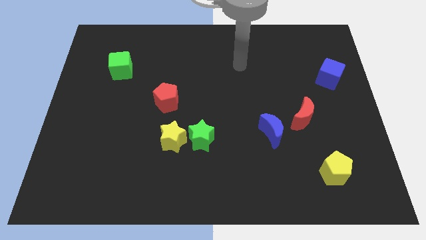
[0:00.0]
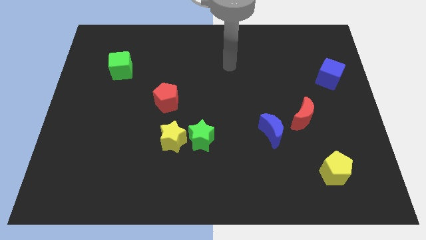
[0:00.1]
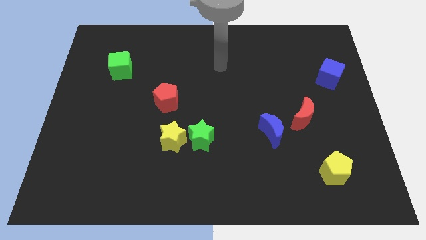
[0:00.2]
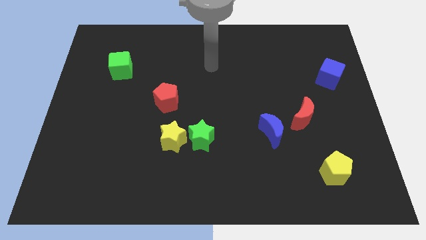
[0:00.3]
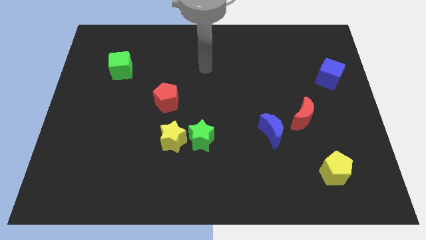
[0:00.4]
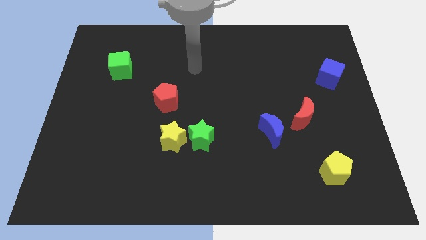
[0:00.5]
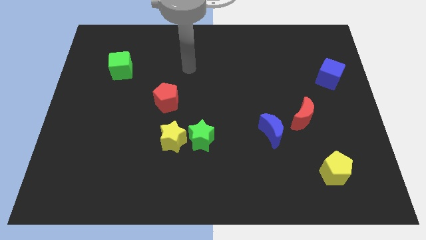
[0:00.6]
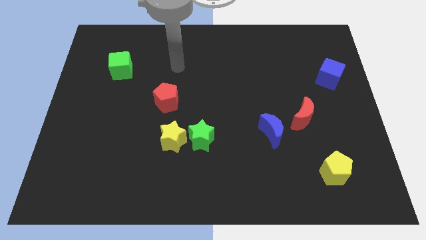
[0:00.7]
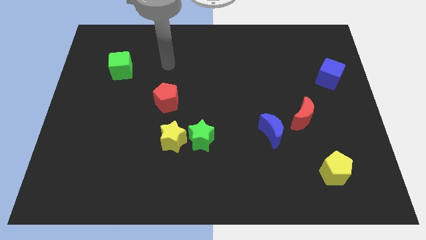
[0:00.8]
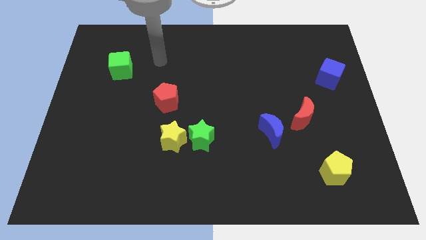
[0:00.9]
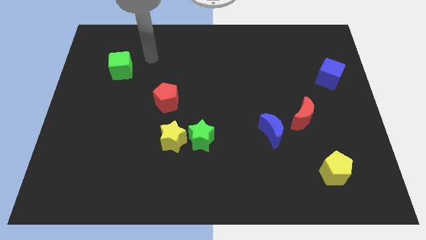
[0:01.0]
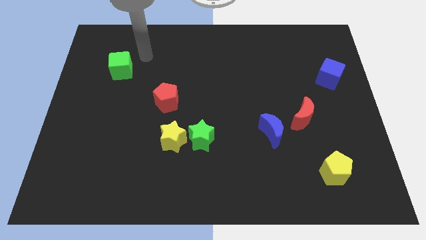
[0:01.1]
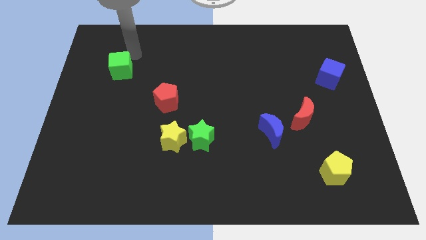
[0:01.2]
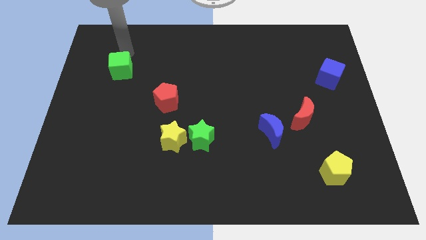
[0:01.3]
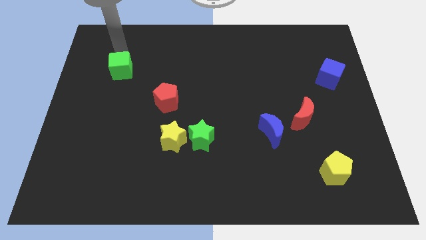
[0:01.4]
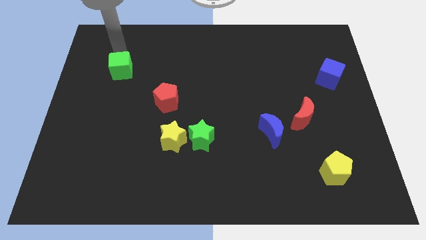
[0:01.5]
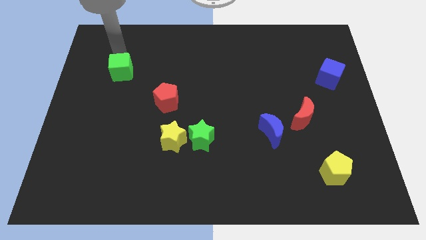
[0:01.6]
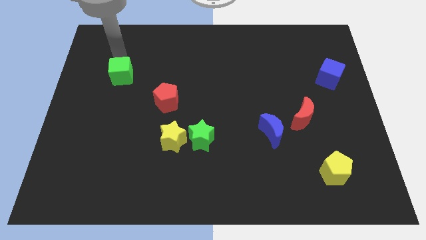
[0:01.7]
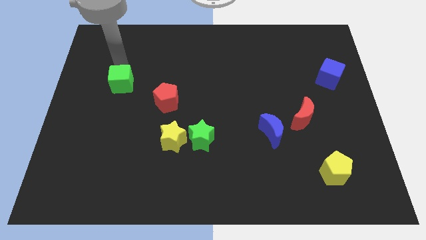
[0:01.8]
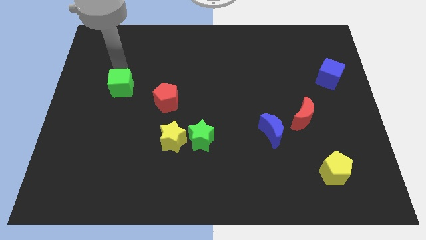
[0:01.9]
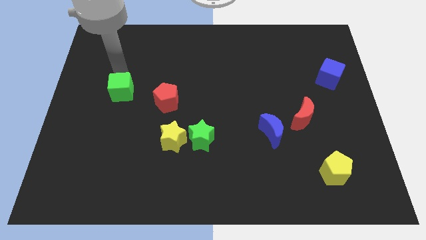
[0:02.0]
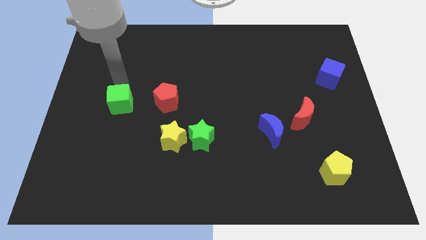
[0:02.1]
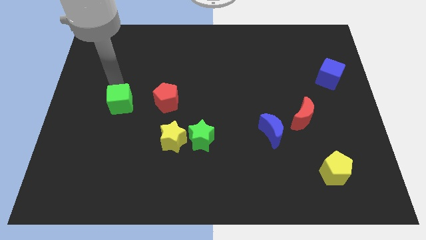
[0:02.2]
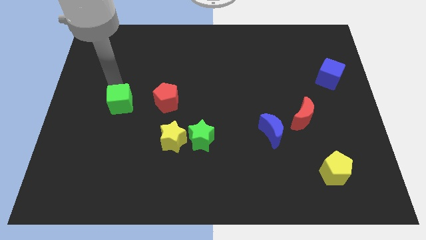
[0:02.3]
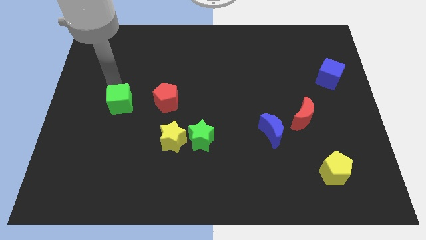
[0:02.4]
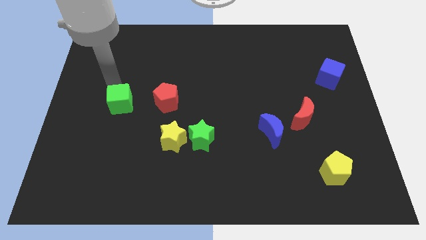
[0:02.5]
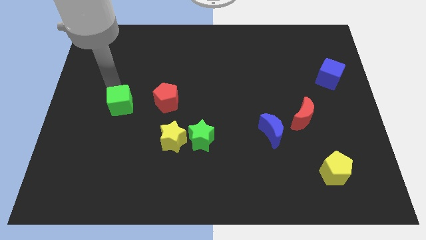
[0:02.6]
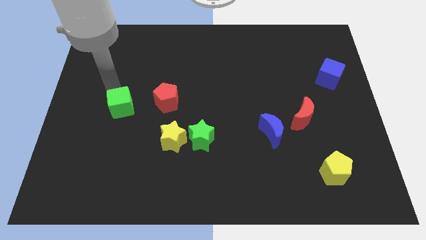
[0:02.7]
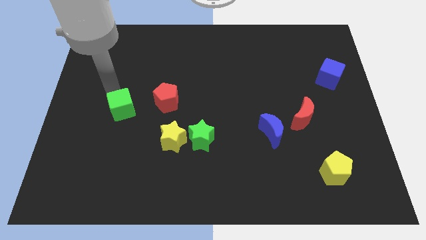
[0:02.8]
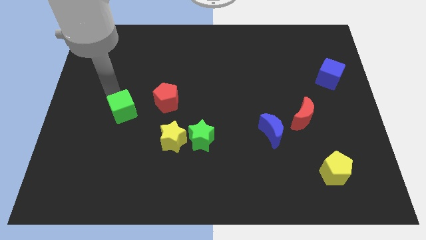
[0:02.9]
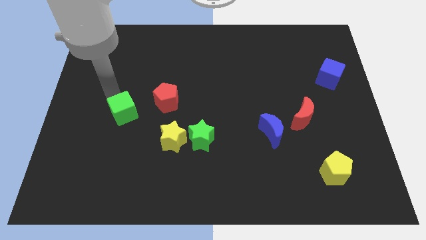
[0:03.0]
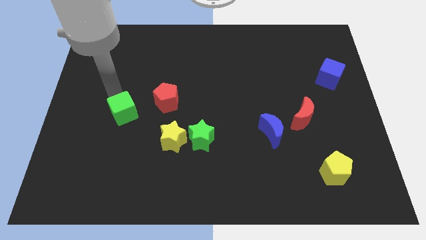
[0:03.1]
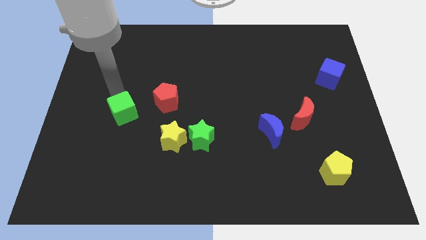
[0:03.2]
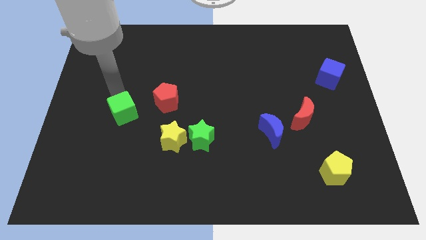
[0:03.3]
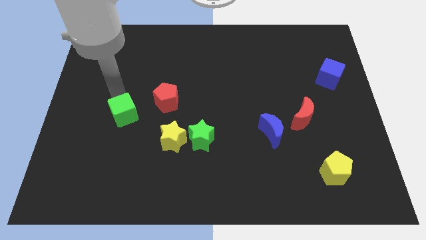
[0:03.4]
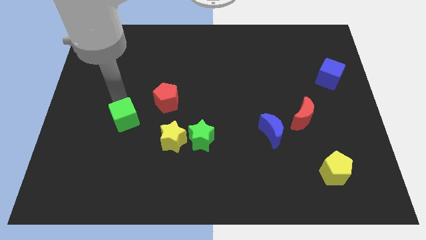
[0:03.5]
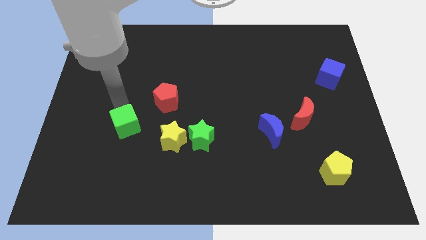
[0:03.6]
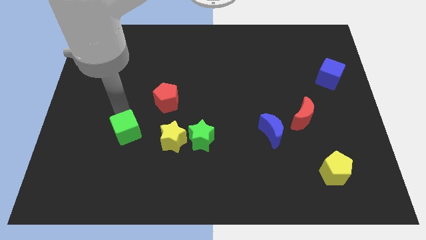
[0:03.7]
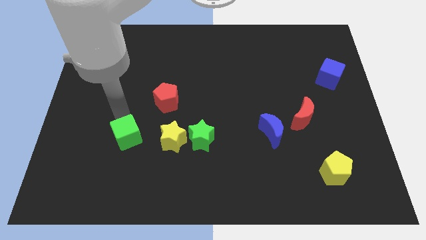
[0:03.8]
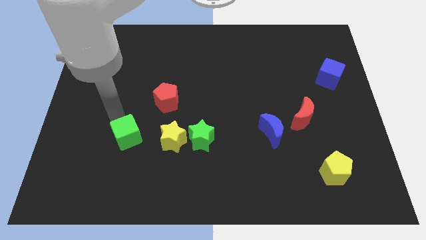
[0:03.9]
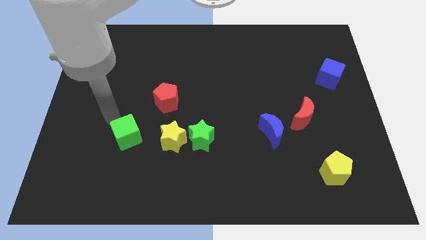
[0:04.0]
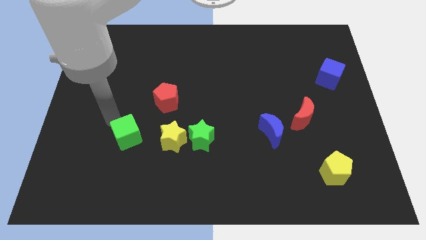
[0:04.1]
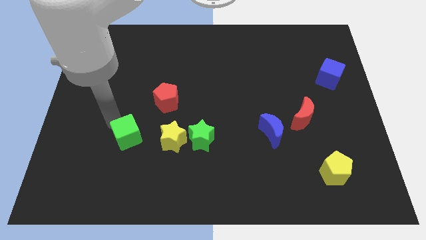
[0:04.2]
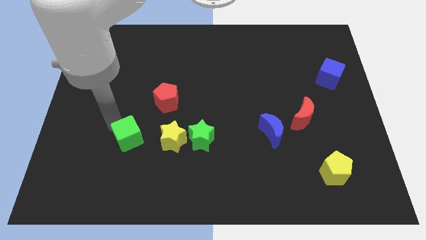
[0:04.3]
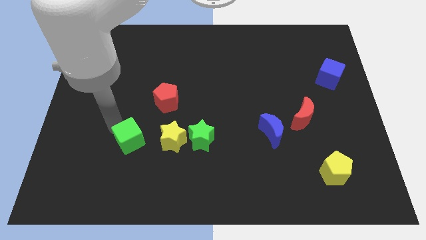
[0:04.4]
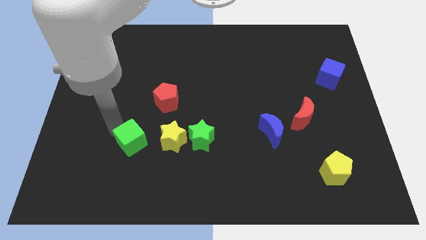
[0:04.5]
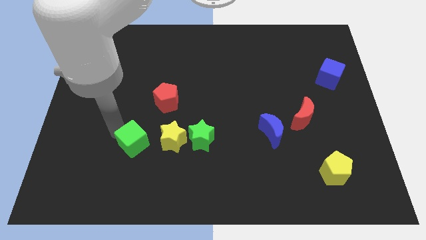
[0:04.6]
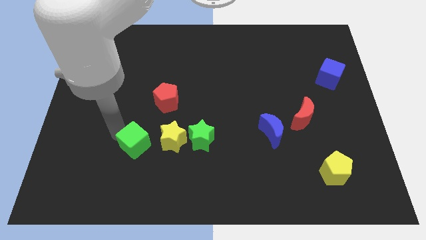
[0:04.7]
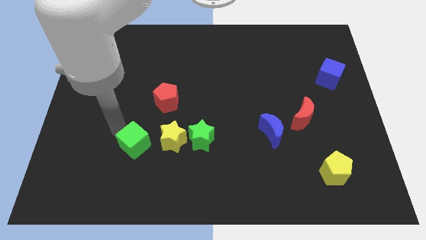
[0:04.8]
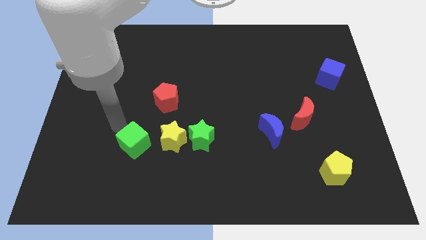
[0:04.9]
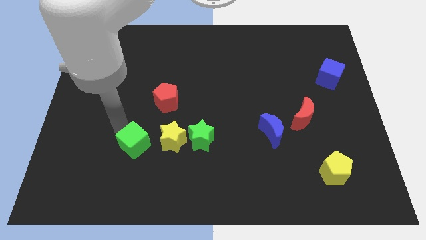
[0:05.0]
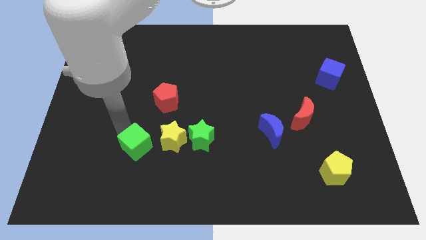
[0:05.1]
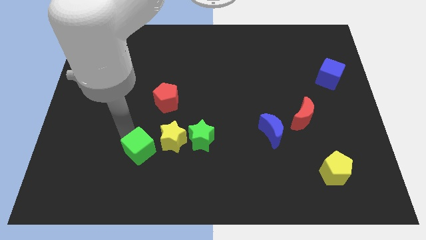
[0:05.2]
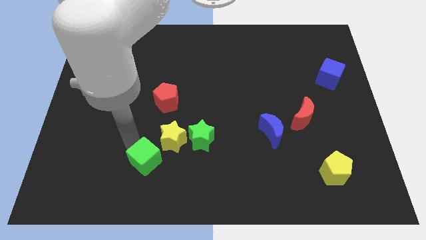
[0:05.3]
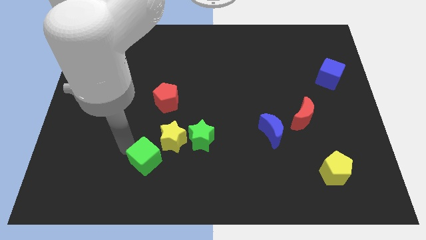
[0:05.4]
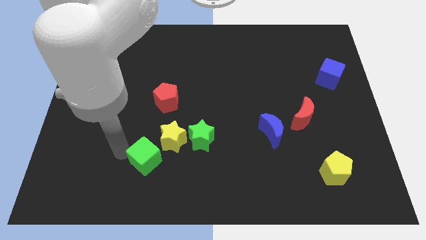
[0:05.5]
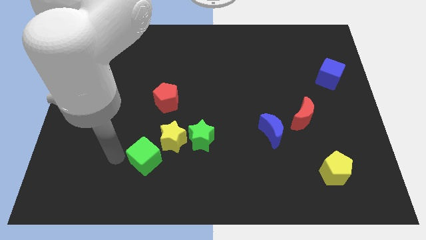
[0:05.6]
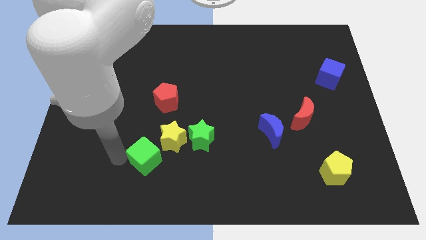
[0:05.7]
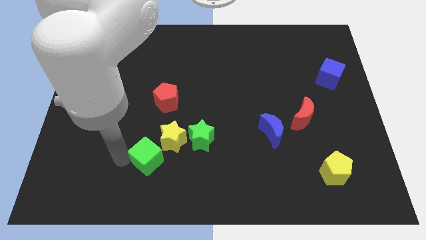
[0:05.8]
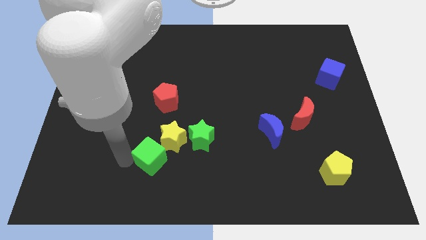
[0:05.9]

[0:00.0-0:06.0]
slide the green cube diagonally down and to the left of the green star

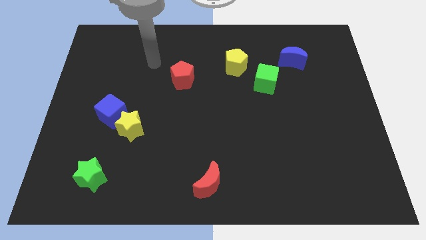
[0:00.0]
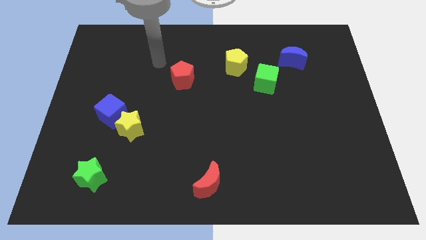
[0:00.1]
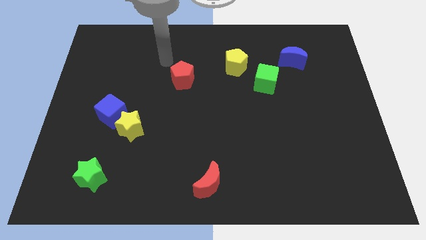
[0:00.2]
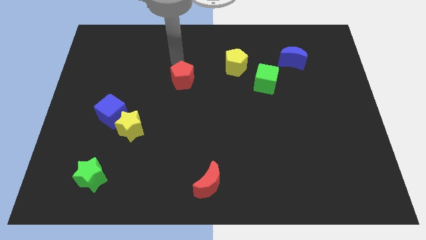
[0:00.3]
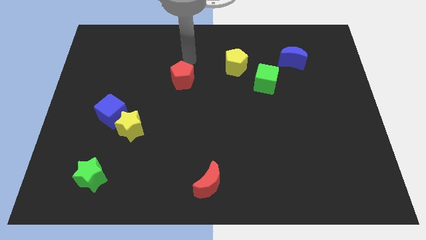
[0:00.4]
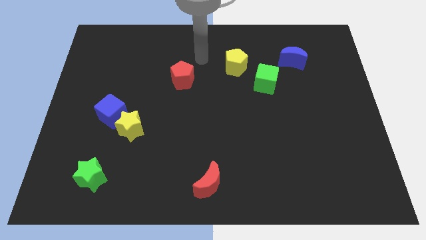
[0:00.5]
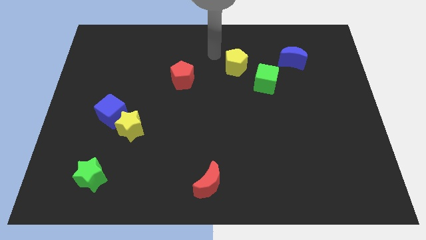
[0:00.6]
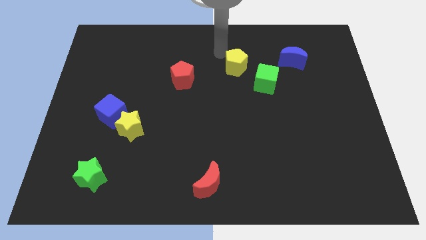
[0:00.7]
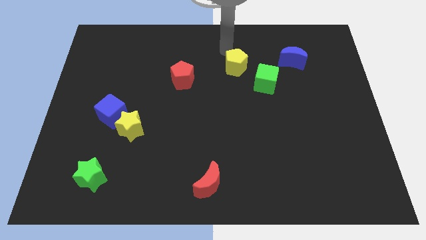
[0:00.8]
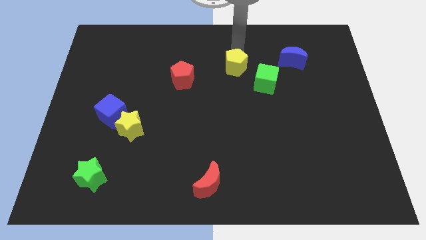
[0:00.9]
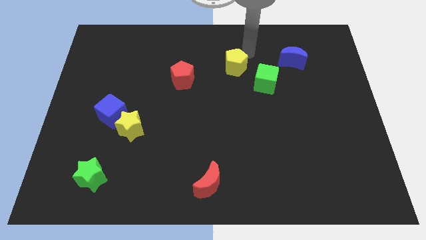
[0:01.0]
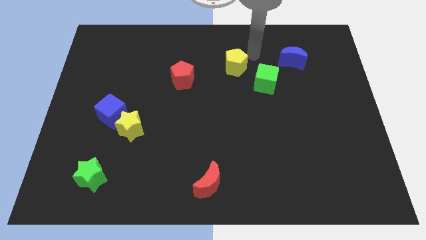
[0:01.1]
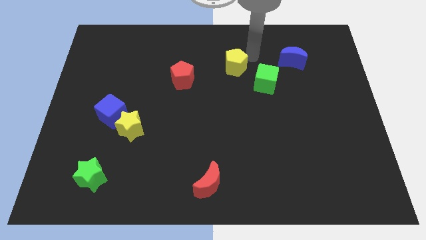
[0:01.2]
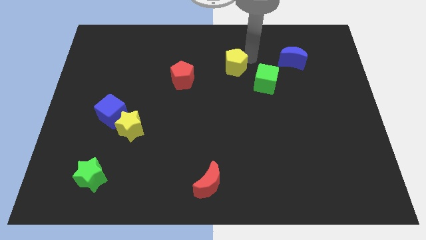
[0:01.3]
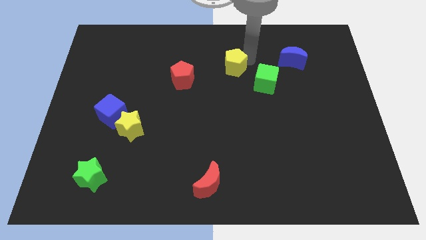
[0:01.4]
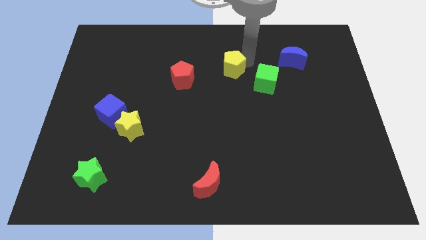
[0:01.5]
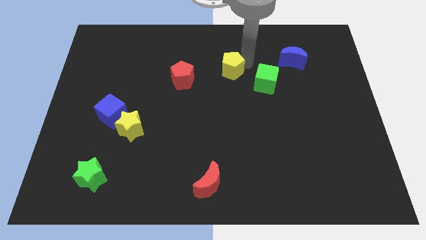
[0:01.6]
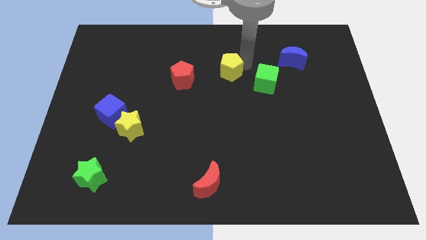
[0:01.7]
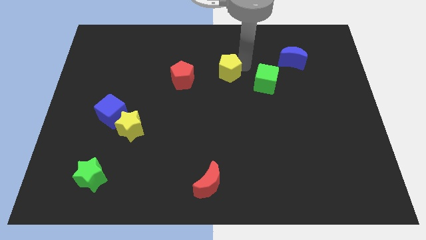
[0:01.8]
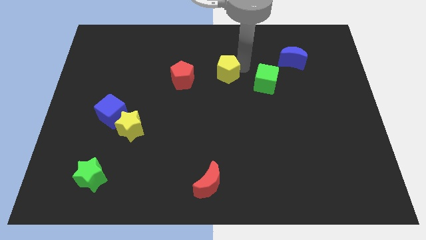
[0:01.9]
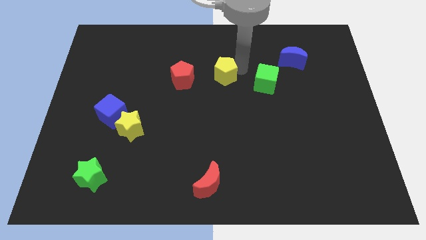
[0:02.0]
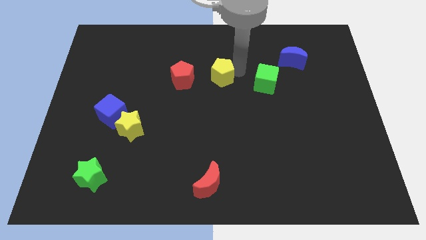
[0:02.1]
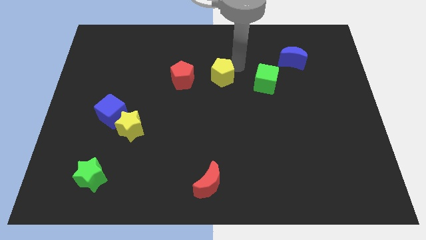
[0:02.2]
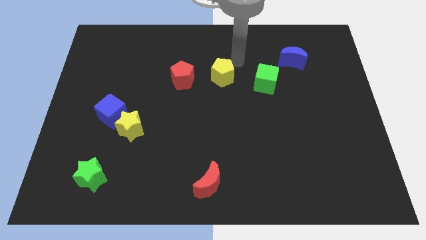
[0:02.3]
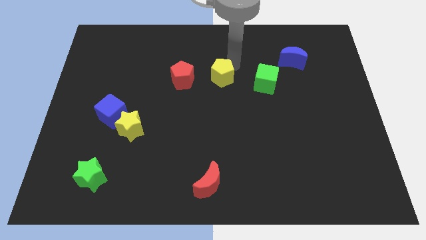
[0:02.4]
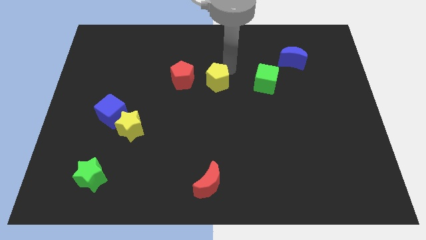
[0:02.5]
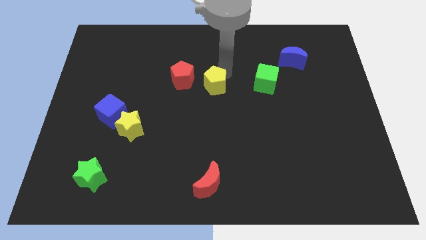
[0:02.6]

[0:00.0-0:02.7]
slide the yellow pentagon to the bottom right side of the red pentagon
